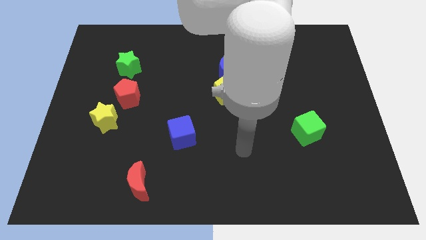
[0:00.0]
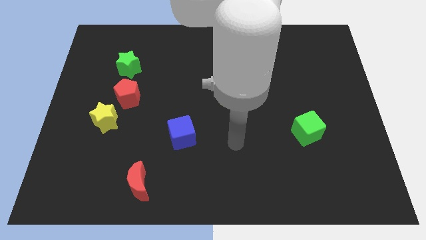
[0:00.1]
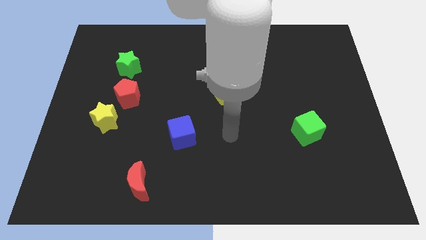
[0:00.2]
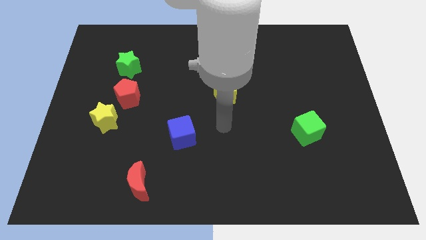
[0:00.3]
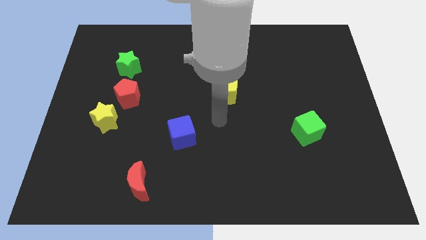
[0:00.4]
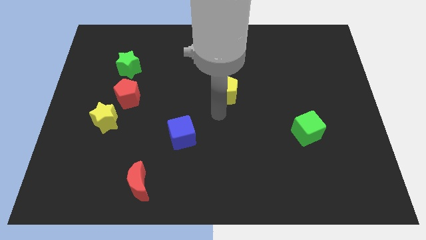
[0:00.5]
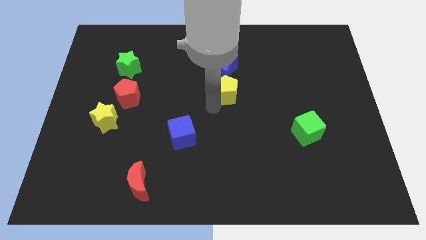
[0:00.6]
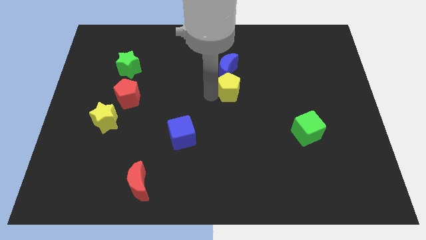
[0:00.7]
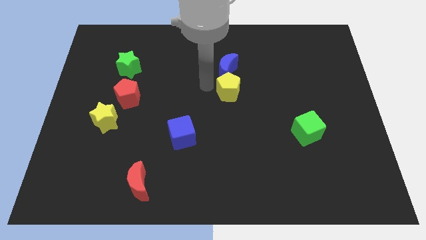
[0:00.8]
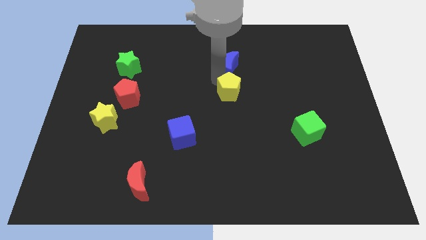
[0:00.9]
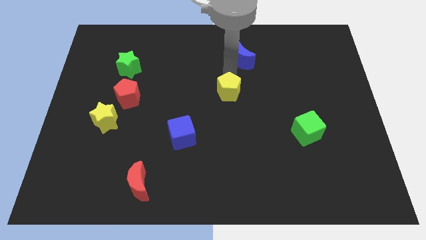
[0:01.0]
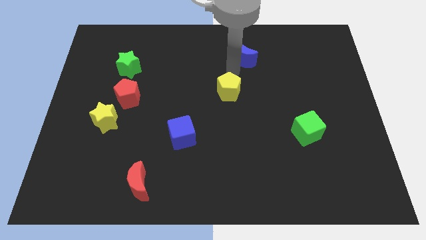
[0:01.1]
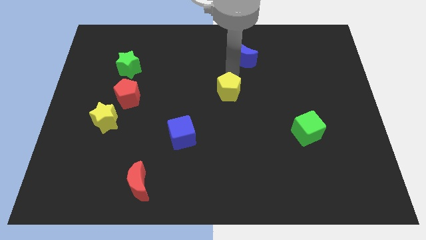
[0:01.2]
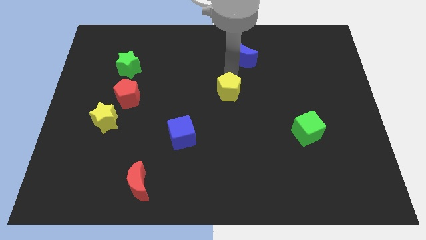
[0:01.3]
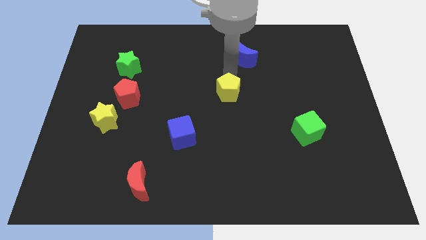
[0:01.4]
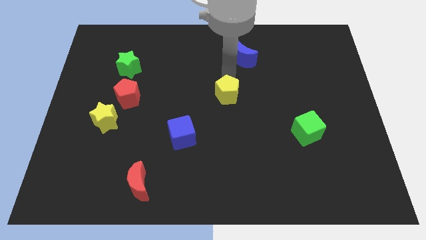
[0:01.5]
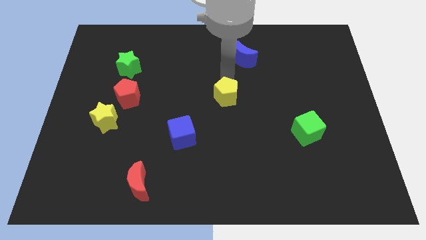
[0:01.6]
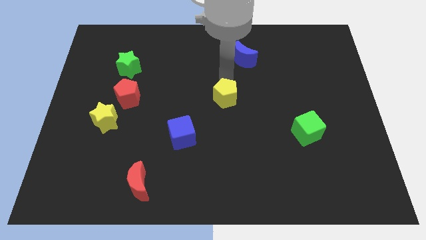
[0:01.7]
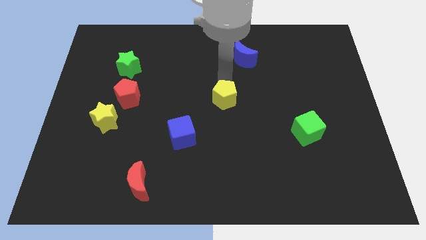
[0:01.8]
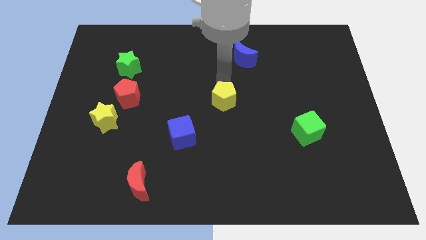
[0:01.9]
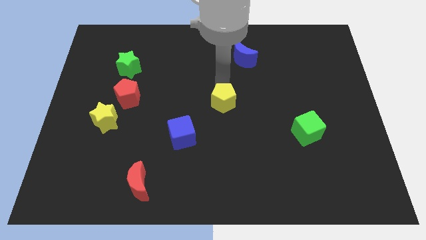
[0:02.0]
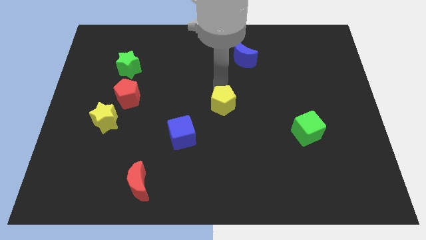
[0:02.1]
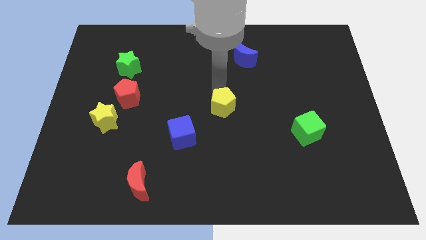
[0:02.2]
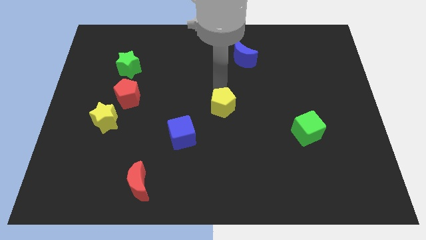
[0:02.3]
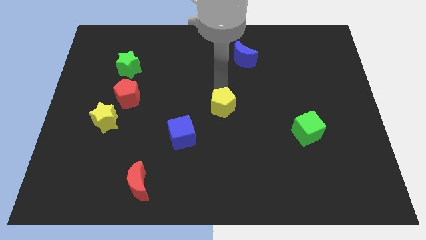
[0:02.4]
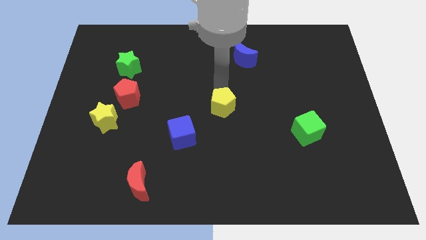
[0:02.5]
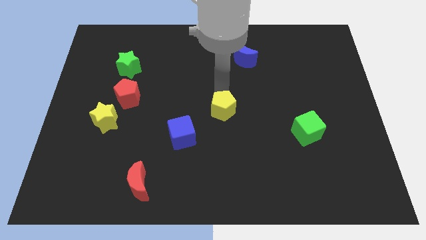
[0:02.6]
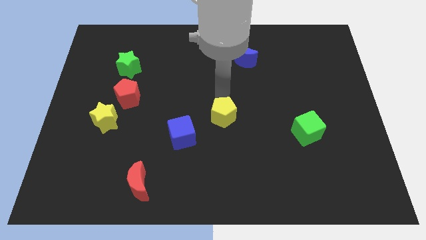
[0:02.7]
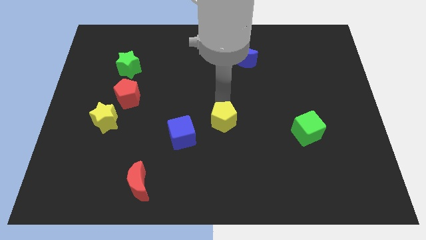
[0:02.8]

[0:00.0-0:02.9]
move the yellow pentagon a little bit downwards

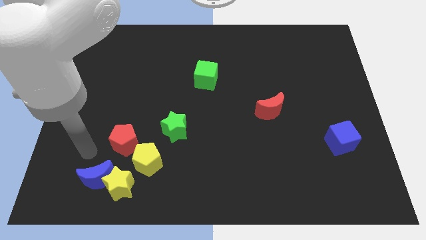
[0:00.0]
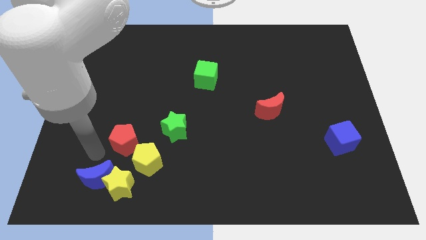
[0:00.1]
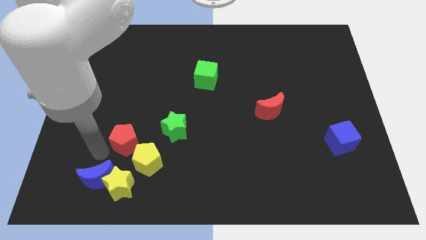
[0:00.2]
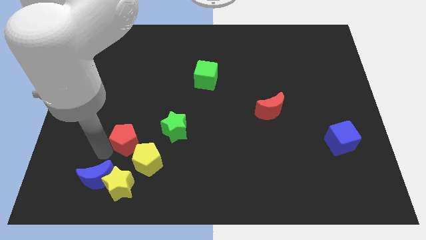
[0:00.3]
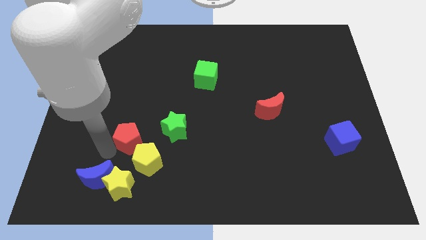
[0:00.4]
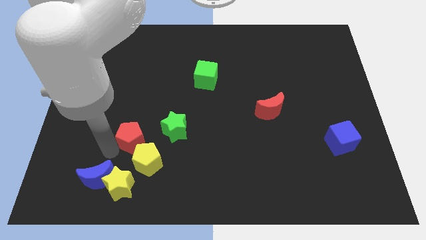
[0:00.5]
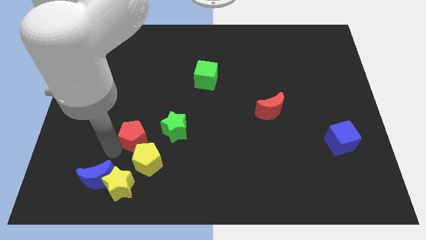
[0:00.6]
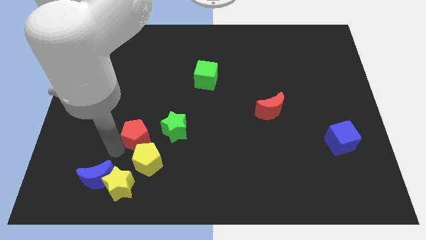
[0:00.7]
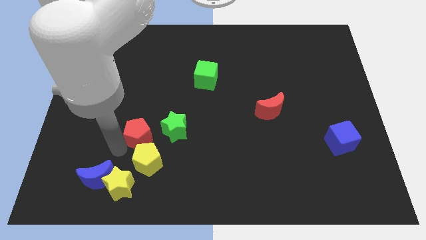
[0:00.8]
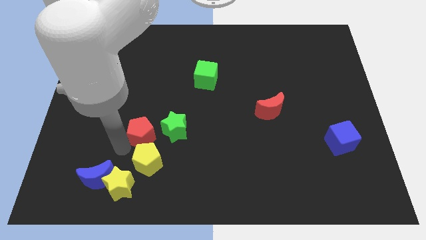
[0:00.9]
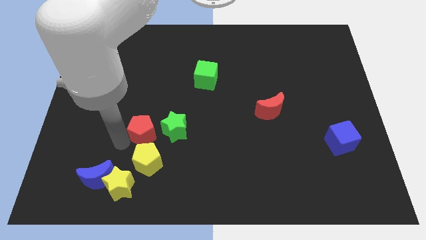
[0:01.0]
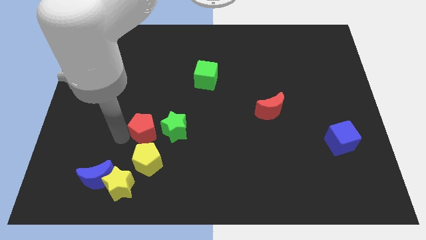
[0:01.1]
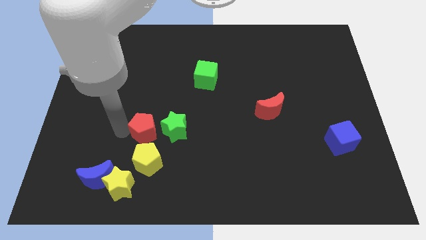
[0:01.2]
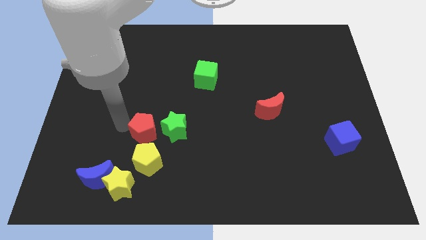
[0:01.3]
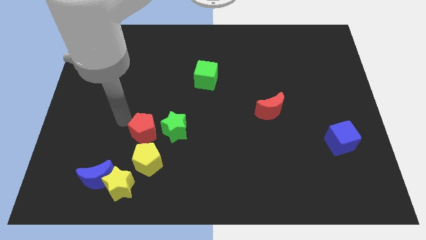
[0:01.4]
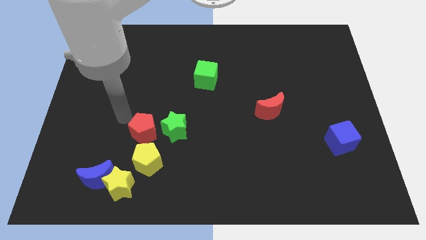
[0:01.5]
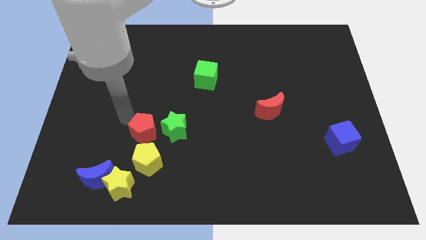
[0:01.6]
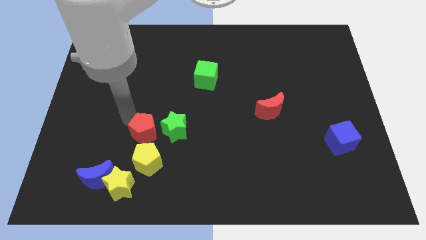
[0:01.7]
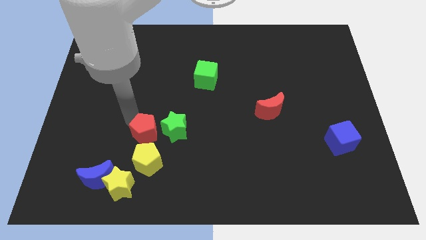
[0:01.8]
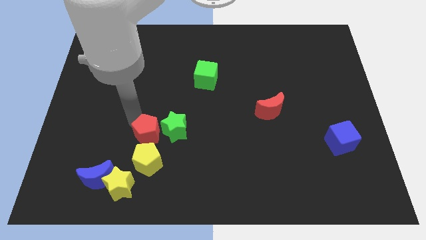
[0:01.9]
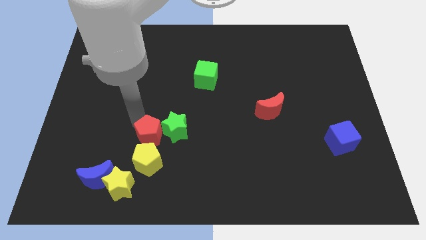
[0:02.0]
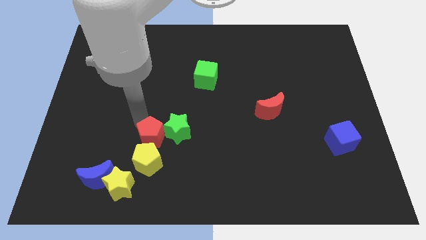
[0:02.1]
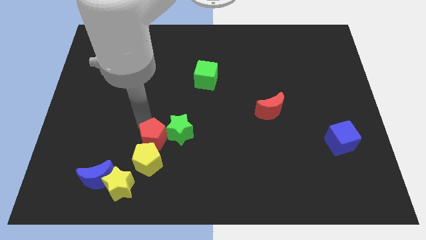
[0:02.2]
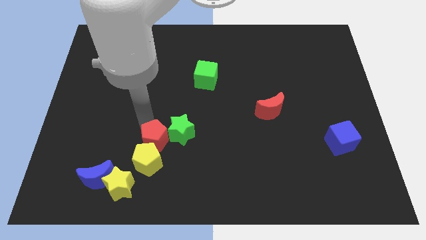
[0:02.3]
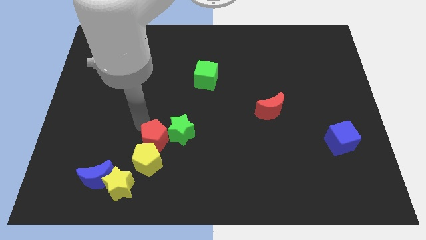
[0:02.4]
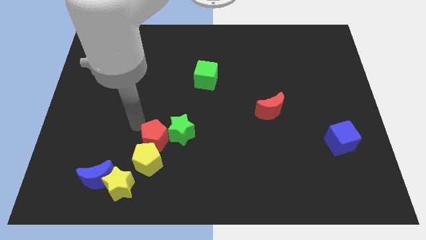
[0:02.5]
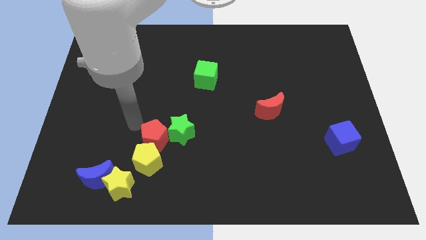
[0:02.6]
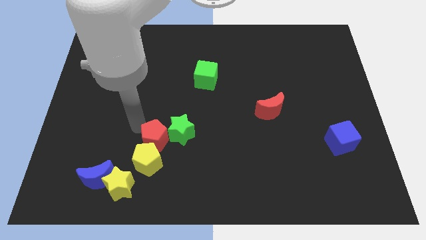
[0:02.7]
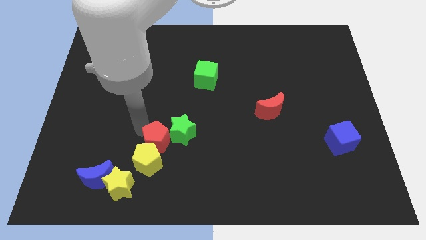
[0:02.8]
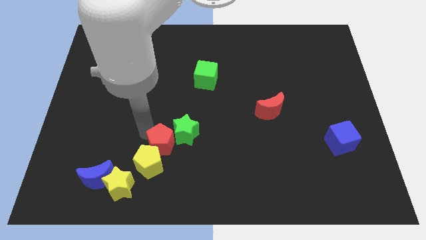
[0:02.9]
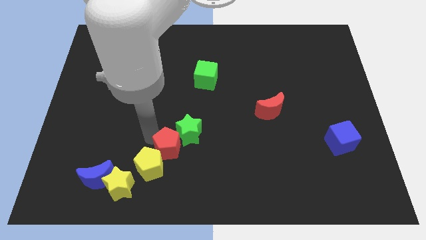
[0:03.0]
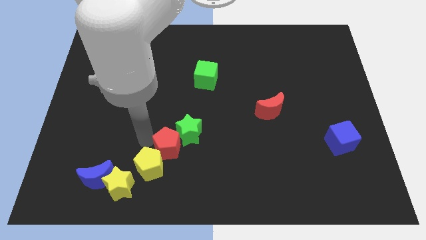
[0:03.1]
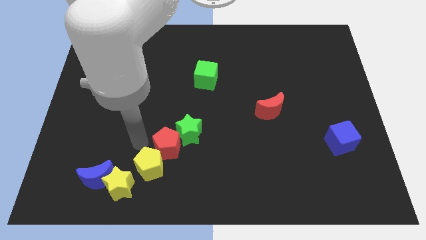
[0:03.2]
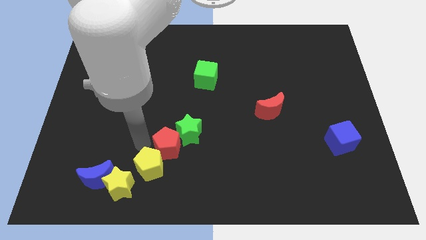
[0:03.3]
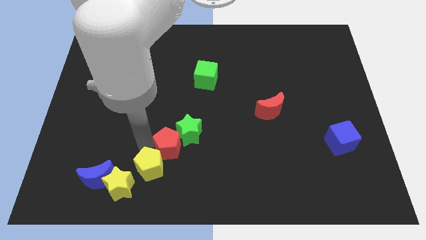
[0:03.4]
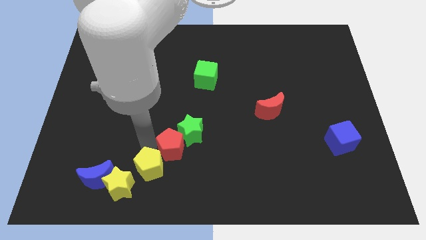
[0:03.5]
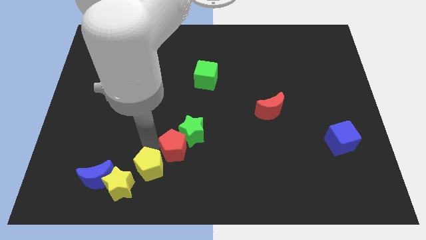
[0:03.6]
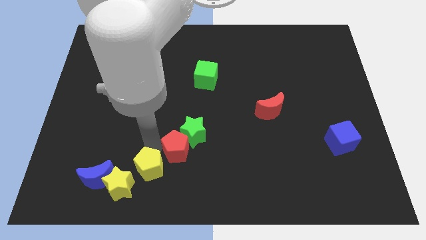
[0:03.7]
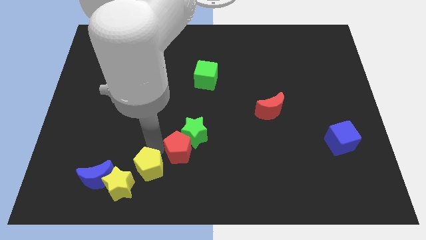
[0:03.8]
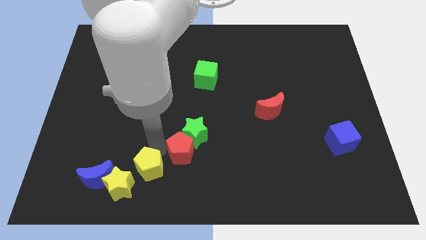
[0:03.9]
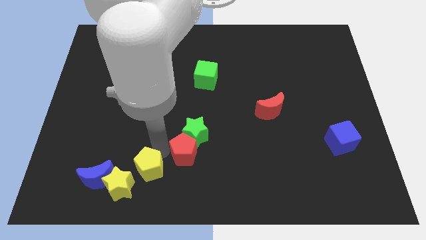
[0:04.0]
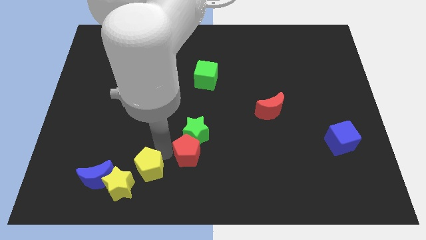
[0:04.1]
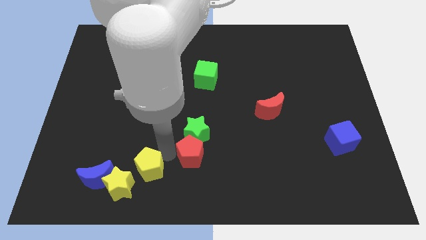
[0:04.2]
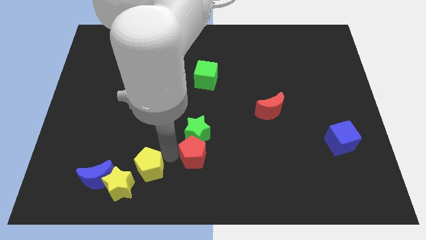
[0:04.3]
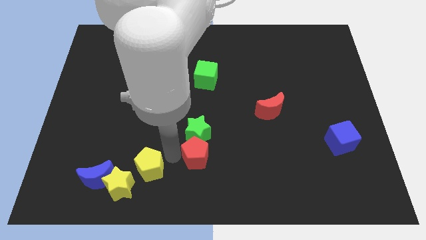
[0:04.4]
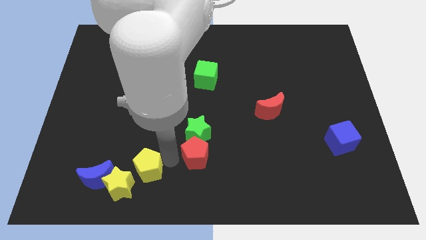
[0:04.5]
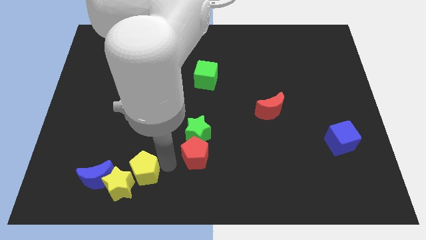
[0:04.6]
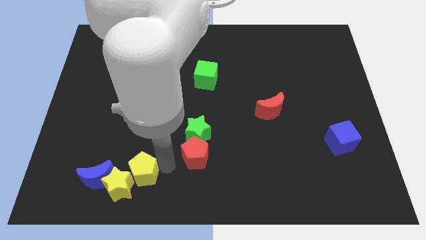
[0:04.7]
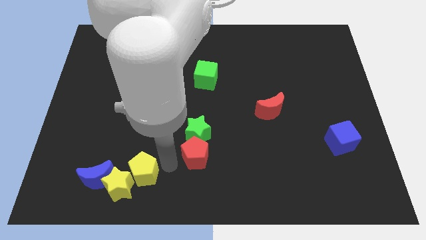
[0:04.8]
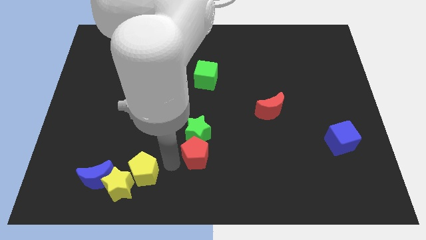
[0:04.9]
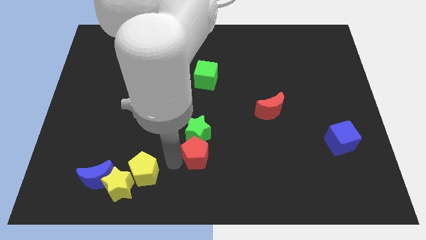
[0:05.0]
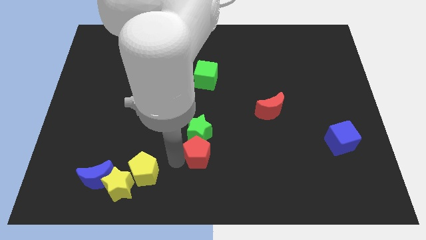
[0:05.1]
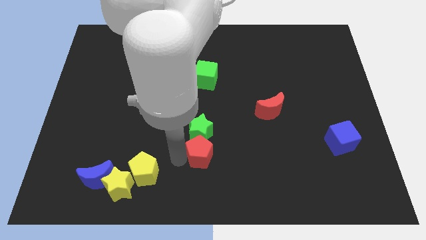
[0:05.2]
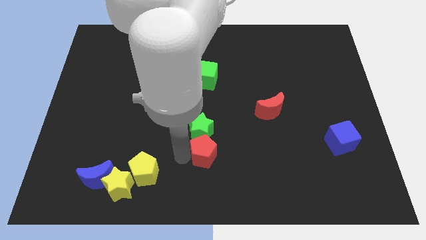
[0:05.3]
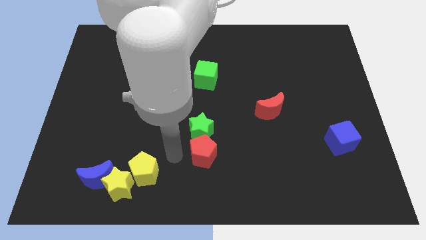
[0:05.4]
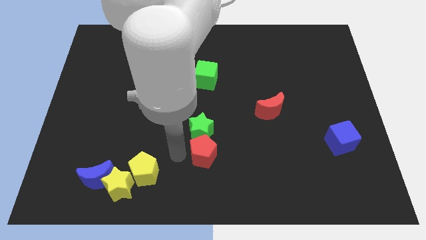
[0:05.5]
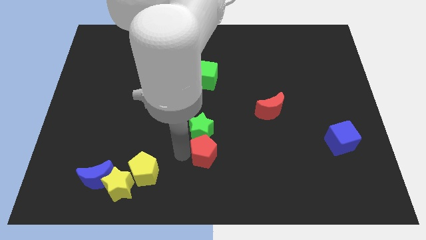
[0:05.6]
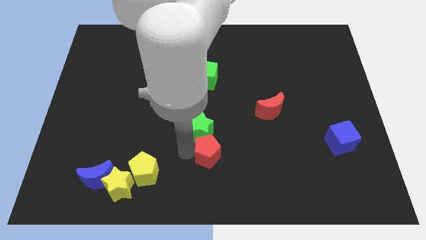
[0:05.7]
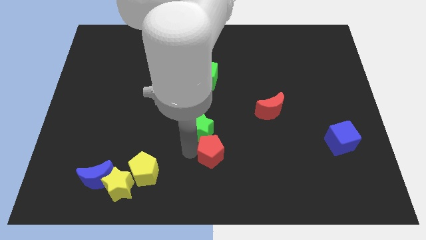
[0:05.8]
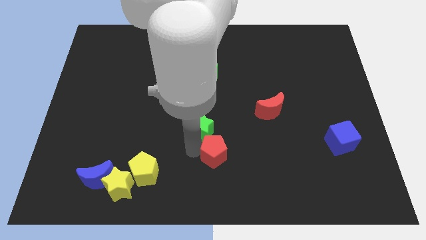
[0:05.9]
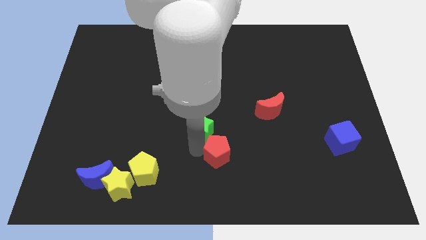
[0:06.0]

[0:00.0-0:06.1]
move the red pentagon to the right
